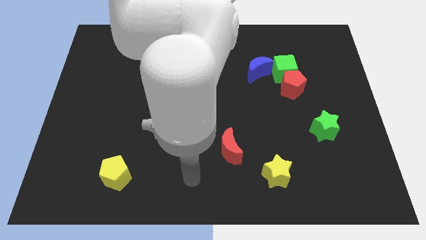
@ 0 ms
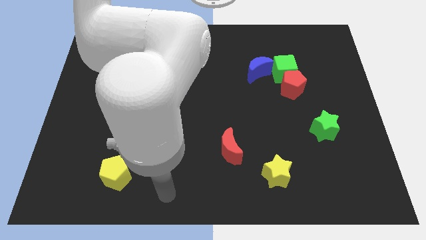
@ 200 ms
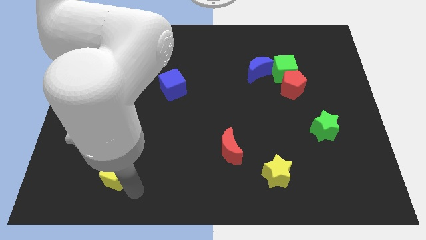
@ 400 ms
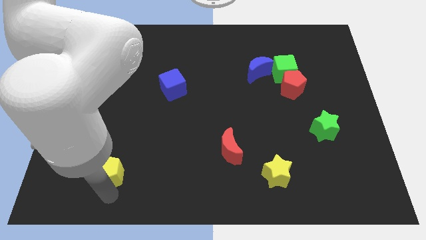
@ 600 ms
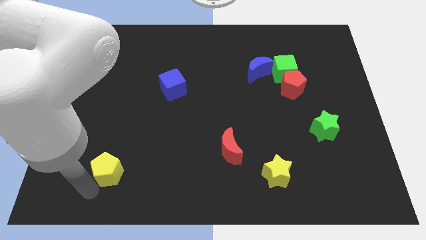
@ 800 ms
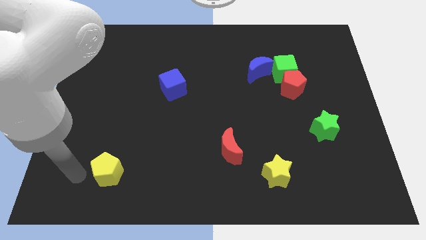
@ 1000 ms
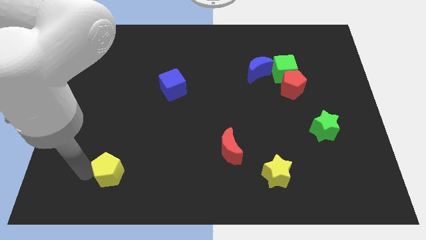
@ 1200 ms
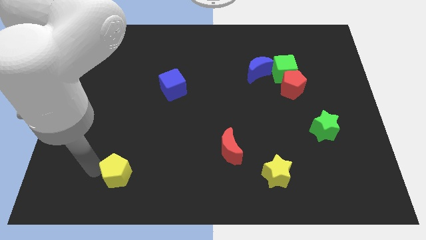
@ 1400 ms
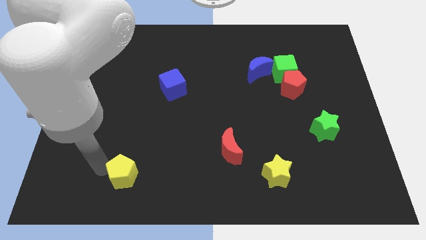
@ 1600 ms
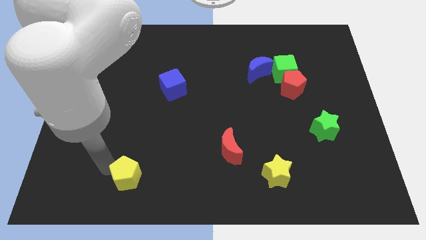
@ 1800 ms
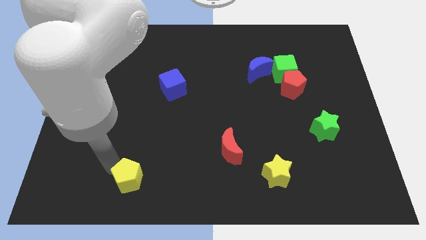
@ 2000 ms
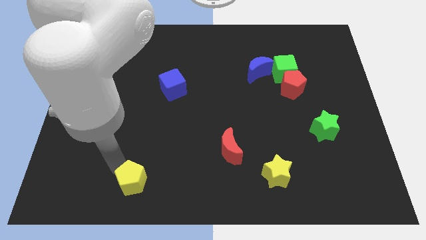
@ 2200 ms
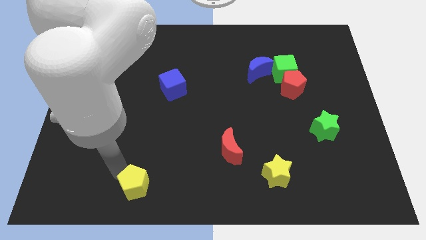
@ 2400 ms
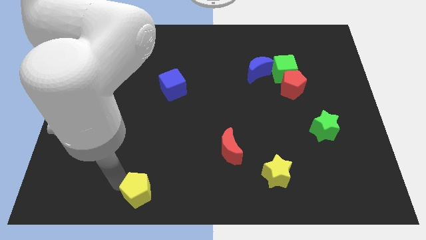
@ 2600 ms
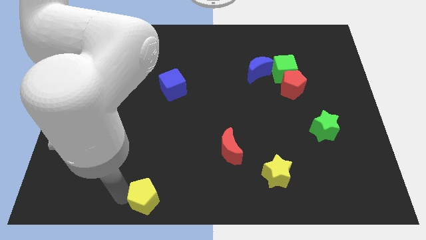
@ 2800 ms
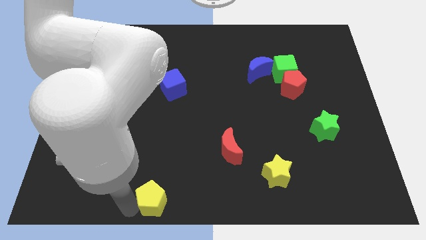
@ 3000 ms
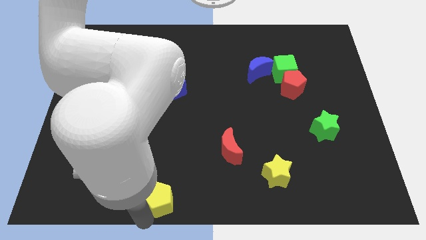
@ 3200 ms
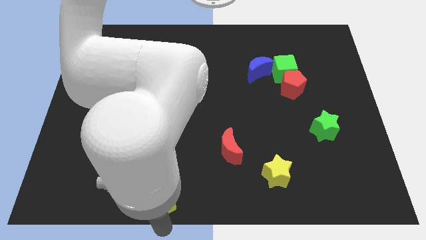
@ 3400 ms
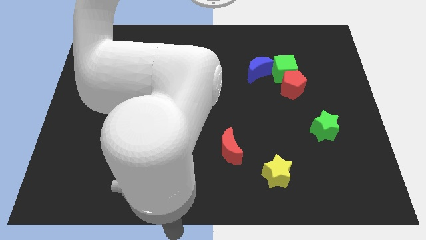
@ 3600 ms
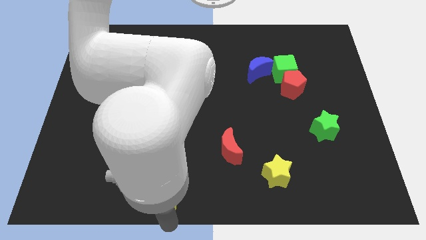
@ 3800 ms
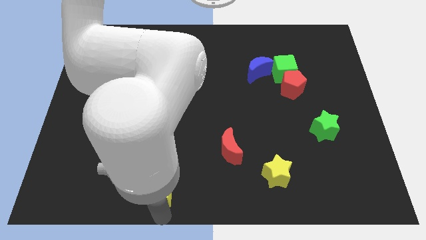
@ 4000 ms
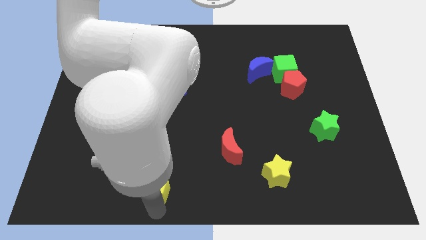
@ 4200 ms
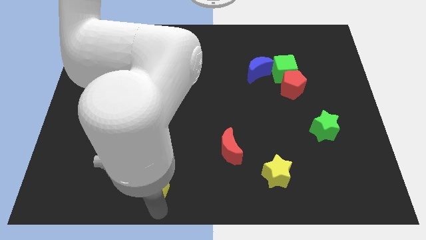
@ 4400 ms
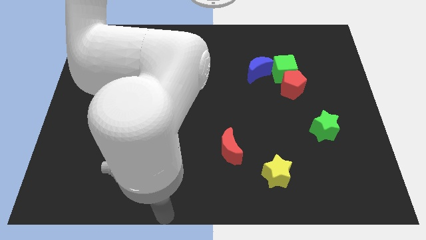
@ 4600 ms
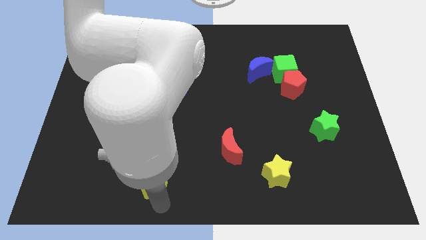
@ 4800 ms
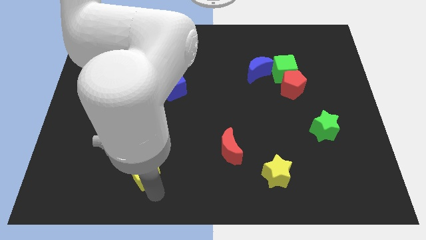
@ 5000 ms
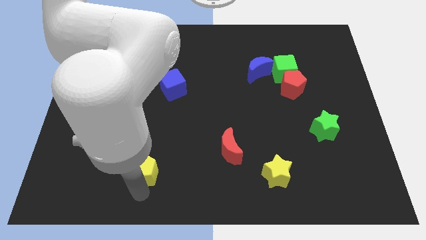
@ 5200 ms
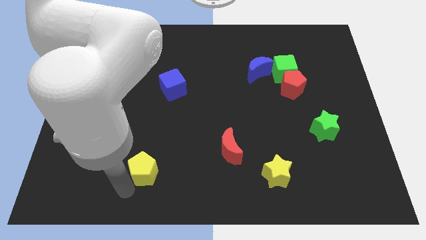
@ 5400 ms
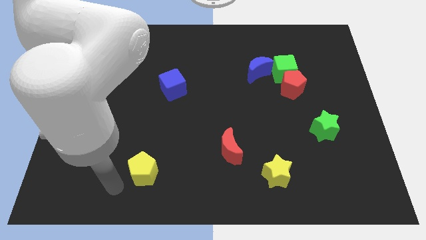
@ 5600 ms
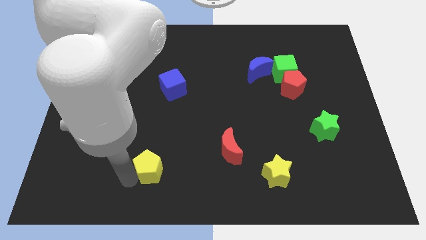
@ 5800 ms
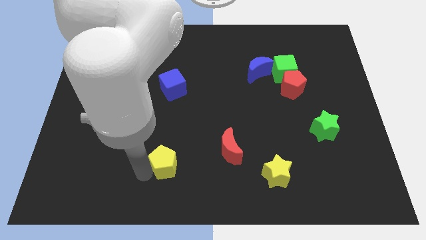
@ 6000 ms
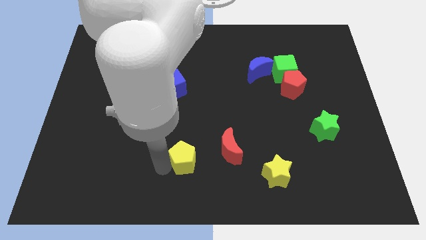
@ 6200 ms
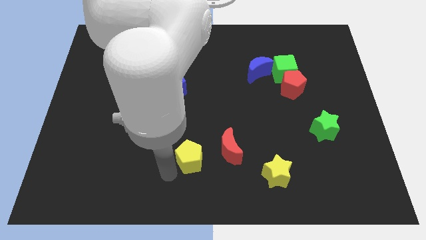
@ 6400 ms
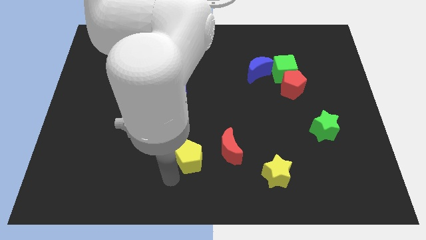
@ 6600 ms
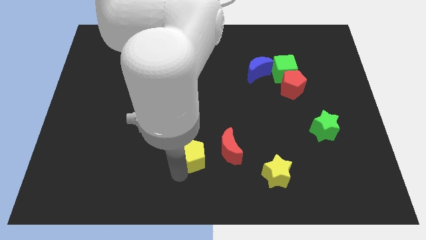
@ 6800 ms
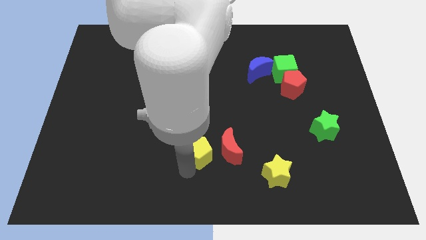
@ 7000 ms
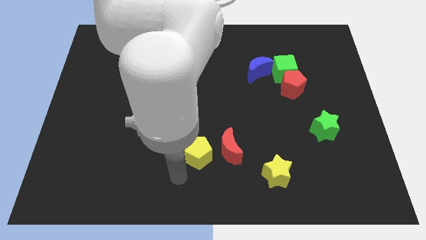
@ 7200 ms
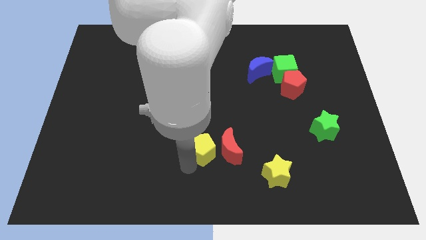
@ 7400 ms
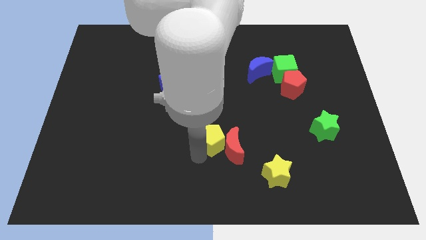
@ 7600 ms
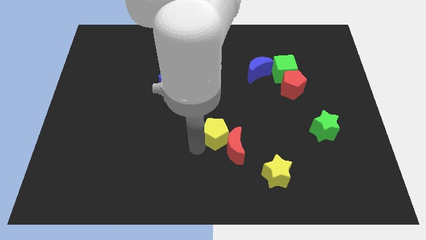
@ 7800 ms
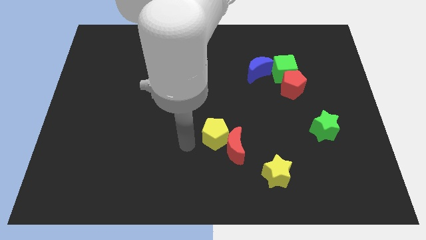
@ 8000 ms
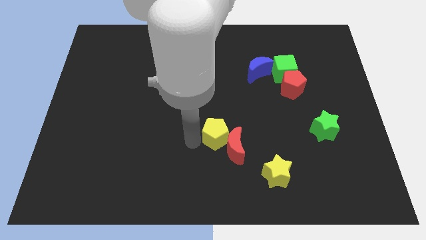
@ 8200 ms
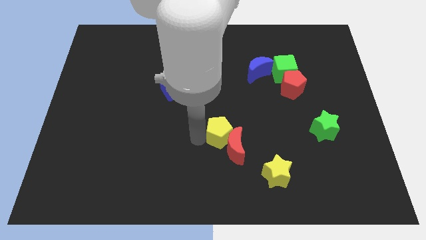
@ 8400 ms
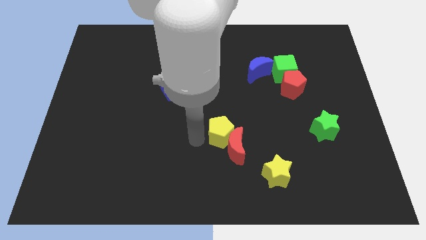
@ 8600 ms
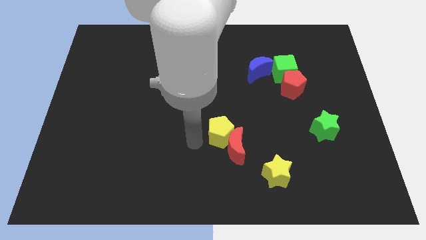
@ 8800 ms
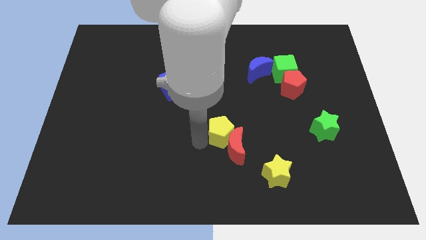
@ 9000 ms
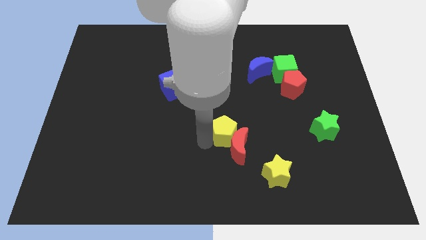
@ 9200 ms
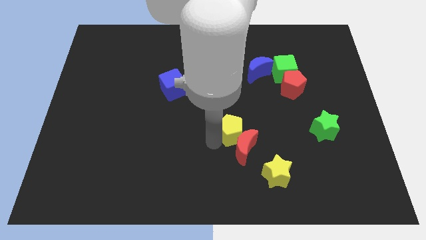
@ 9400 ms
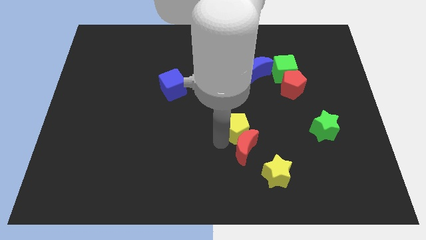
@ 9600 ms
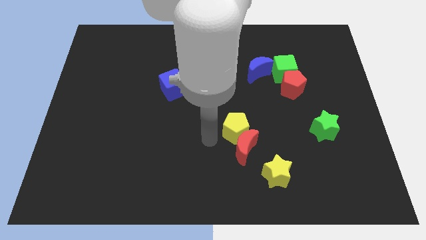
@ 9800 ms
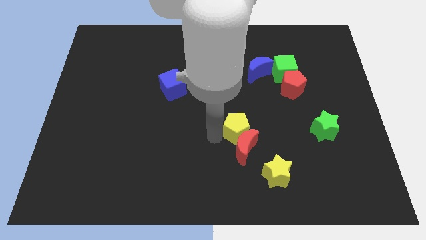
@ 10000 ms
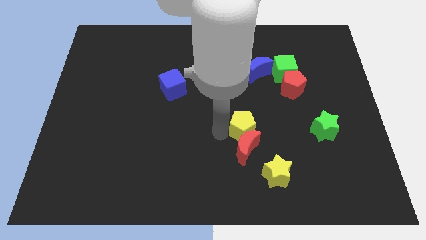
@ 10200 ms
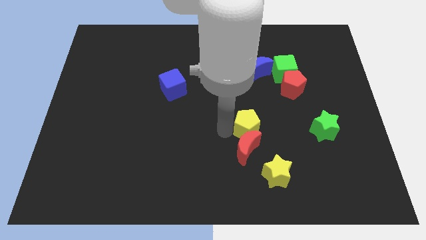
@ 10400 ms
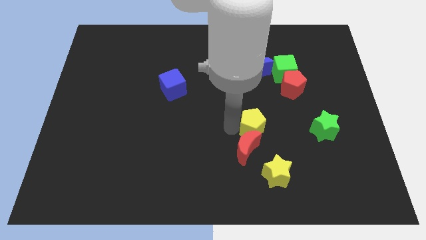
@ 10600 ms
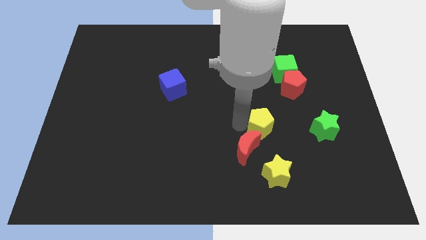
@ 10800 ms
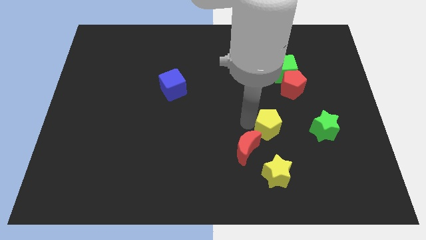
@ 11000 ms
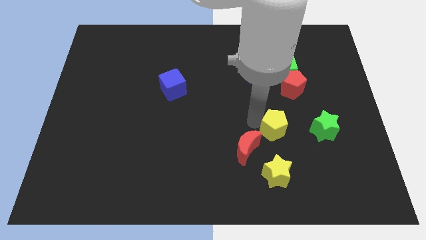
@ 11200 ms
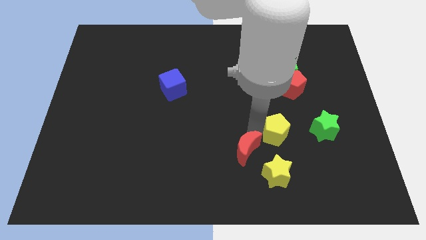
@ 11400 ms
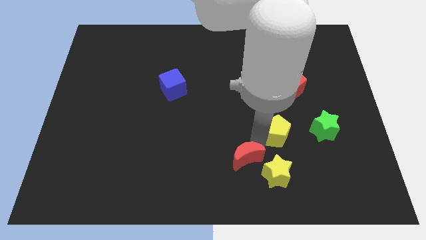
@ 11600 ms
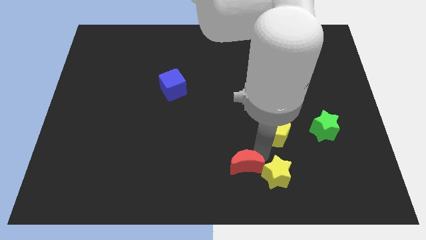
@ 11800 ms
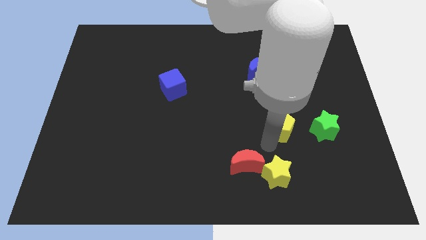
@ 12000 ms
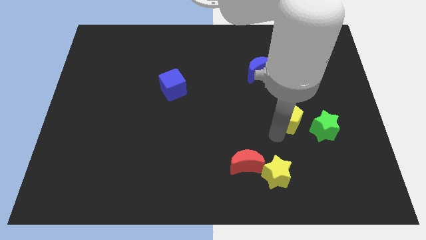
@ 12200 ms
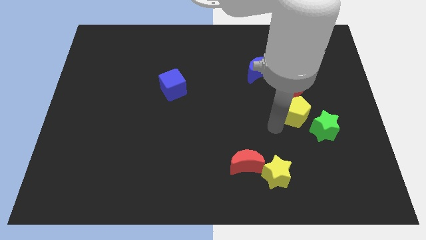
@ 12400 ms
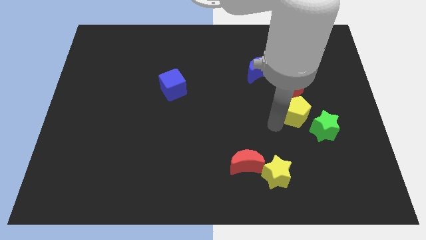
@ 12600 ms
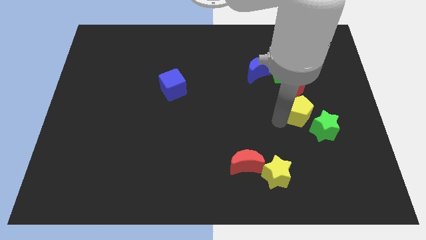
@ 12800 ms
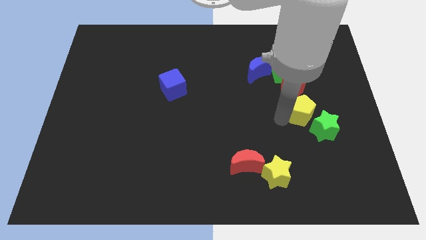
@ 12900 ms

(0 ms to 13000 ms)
push the yellow pentagon to the bottom right side of the red pentagon
